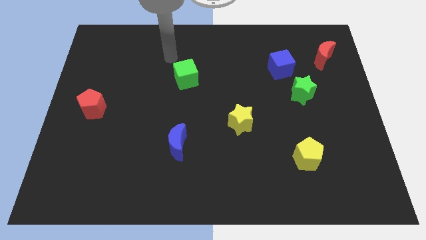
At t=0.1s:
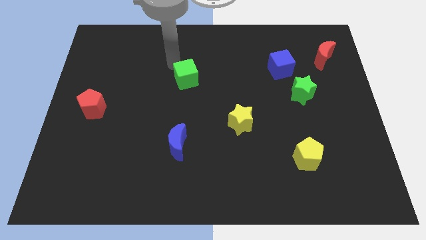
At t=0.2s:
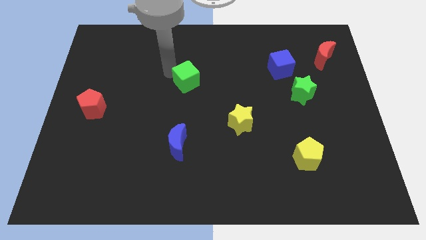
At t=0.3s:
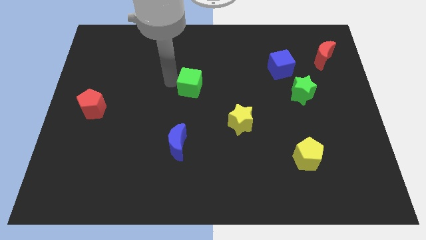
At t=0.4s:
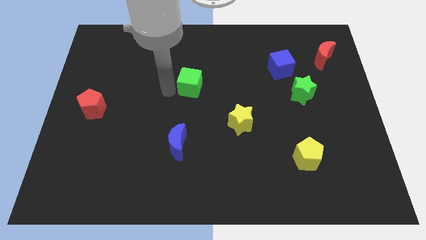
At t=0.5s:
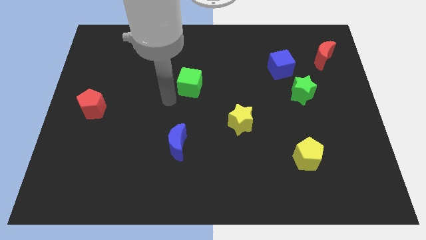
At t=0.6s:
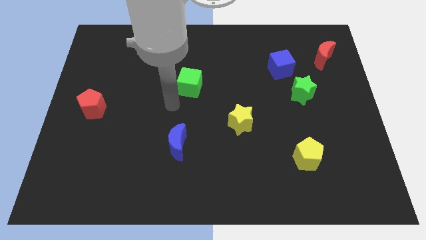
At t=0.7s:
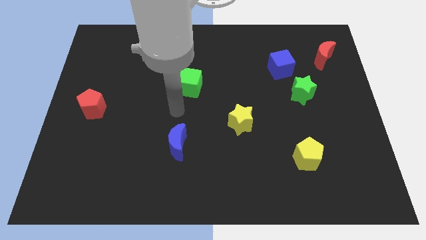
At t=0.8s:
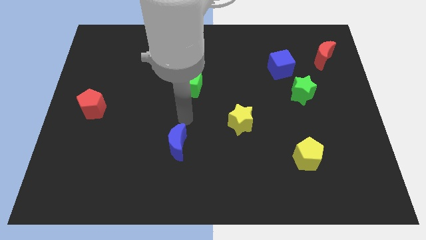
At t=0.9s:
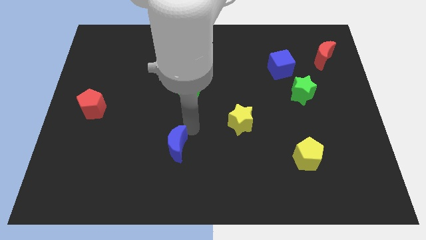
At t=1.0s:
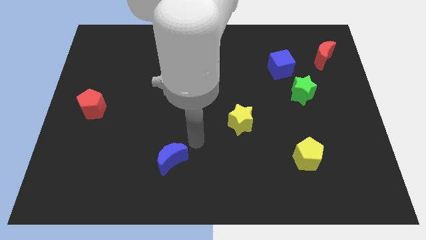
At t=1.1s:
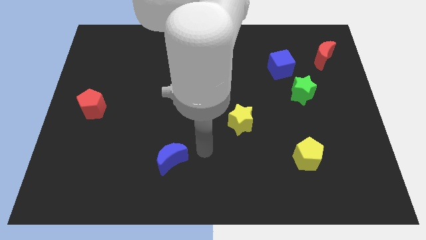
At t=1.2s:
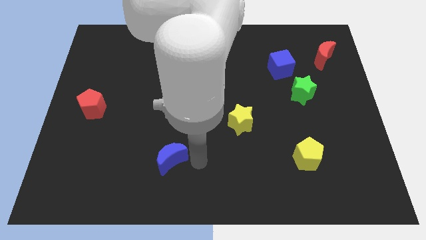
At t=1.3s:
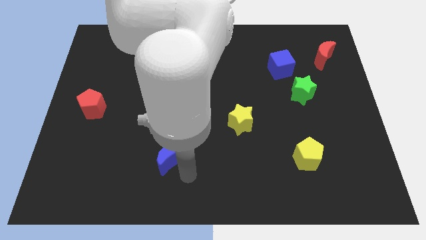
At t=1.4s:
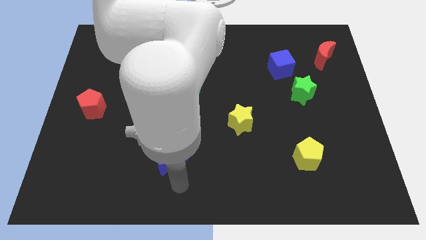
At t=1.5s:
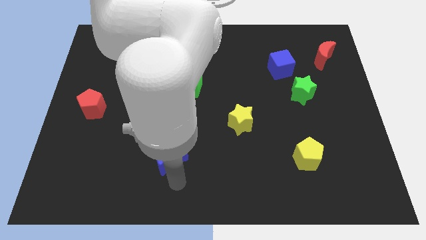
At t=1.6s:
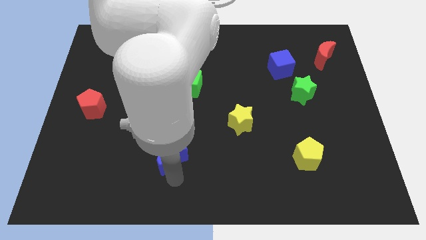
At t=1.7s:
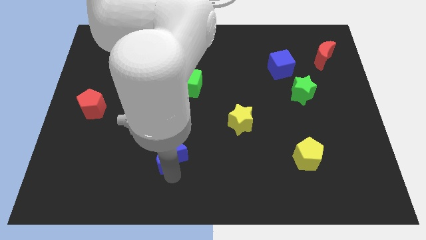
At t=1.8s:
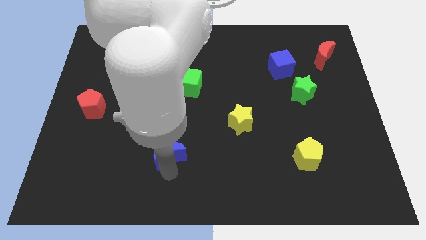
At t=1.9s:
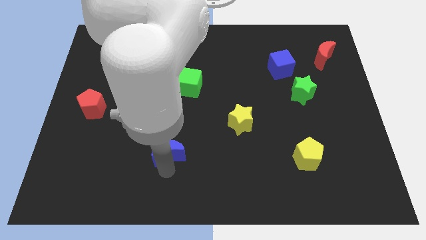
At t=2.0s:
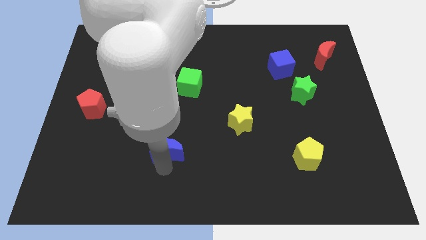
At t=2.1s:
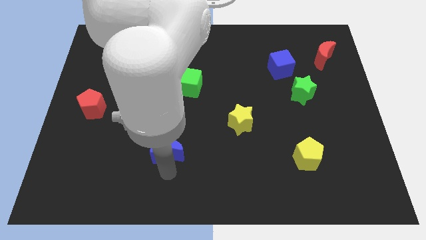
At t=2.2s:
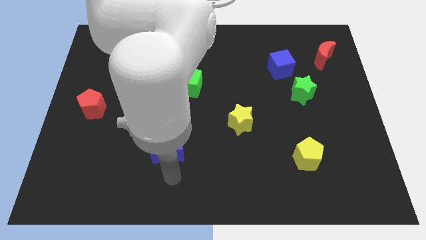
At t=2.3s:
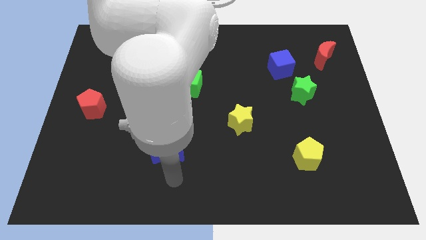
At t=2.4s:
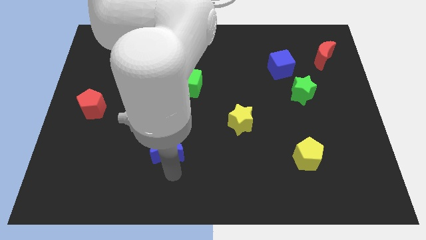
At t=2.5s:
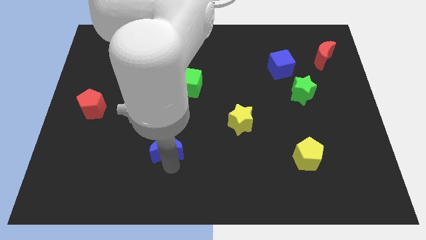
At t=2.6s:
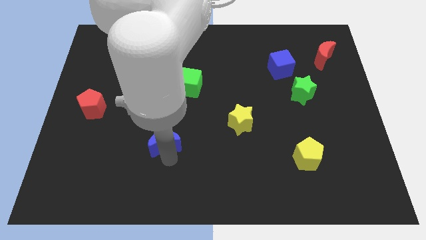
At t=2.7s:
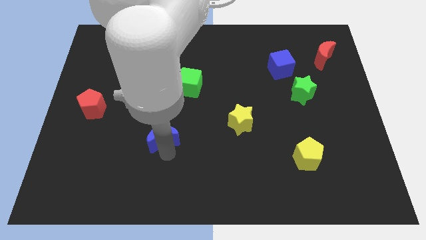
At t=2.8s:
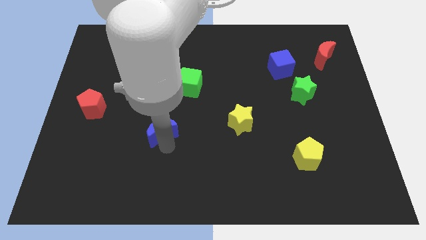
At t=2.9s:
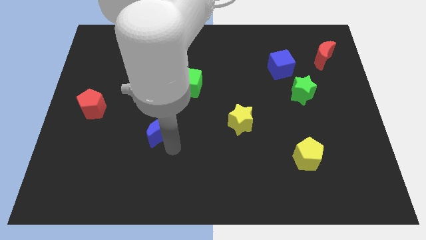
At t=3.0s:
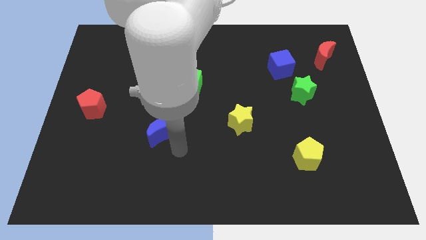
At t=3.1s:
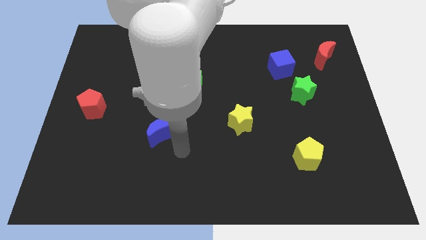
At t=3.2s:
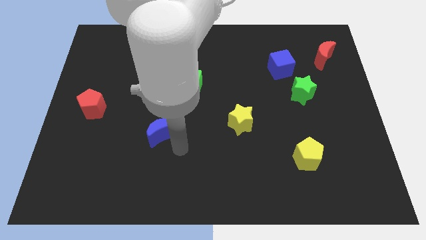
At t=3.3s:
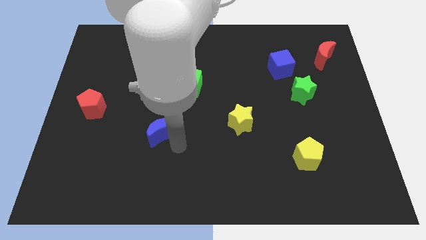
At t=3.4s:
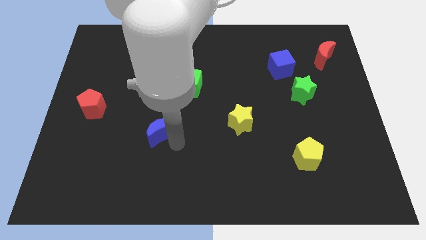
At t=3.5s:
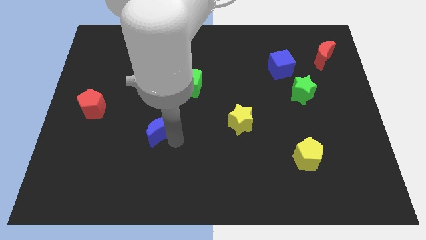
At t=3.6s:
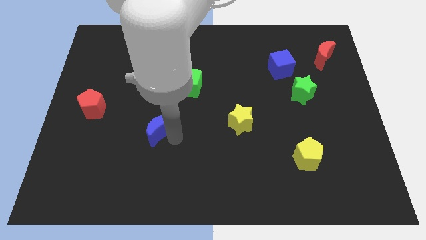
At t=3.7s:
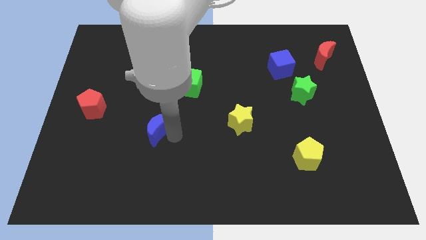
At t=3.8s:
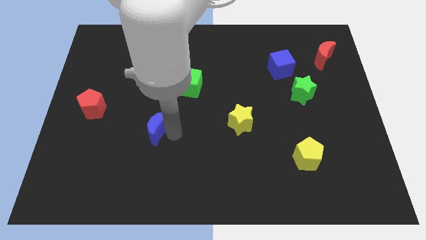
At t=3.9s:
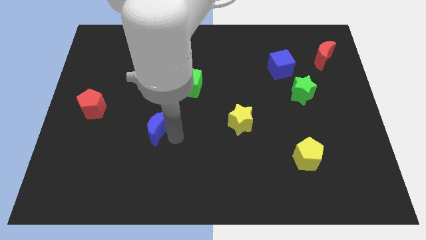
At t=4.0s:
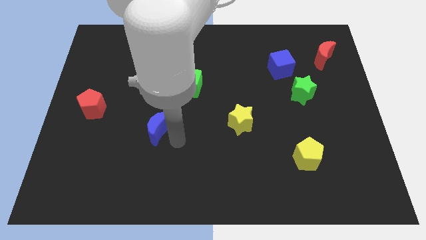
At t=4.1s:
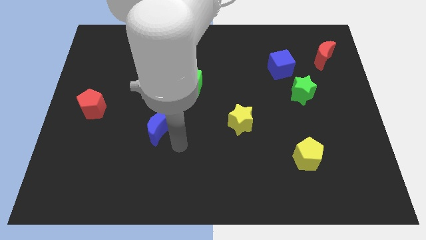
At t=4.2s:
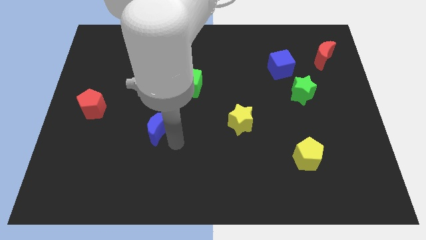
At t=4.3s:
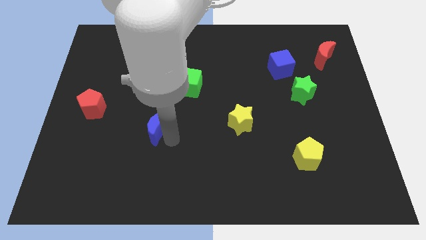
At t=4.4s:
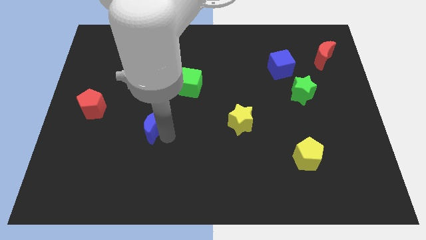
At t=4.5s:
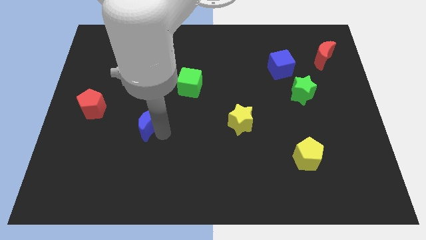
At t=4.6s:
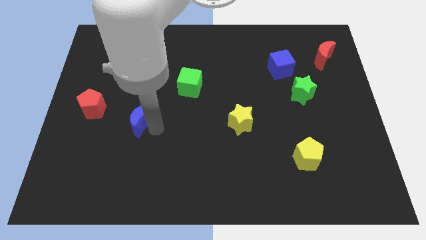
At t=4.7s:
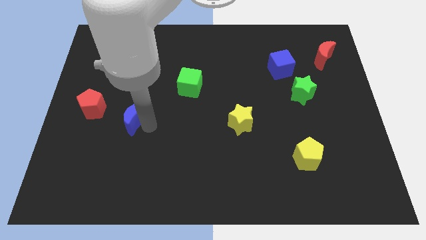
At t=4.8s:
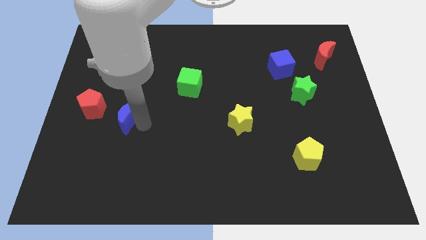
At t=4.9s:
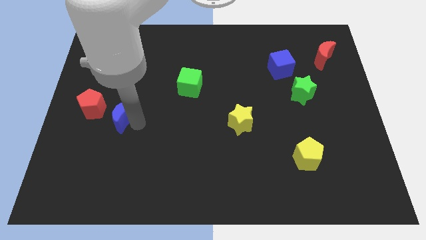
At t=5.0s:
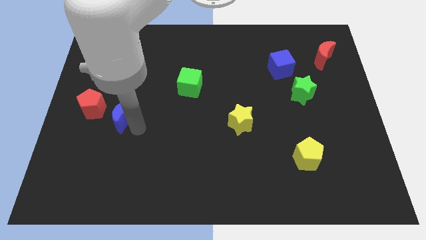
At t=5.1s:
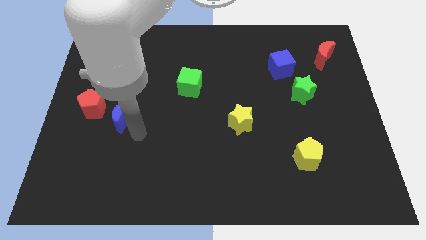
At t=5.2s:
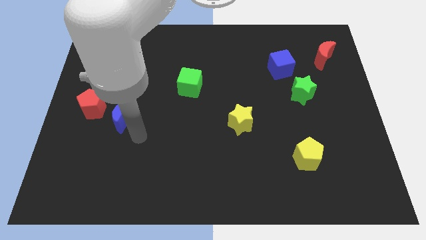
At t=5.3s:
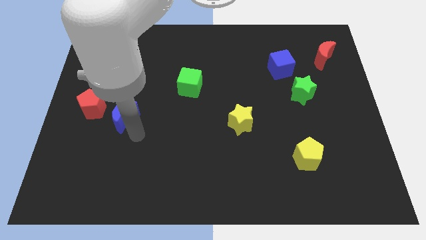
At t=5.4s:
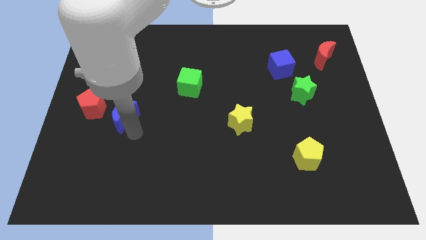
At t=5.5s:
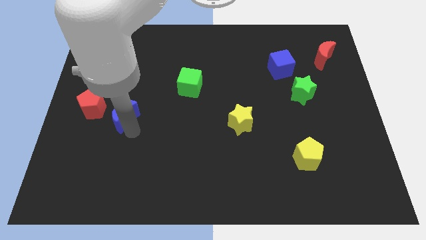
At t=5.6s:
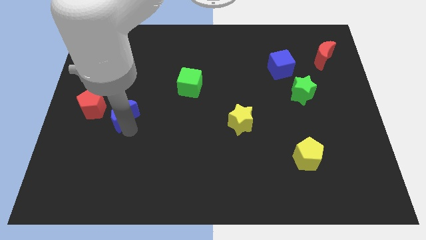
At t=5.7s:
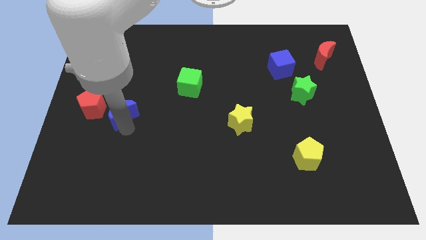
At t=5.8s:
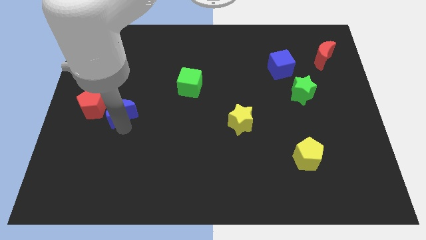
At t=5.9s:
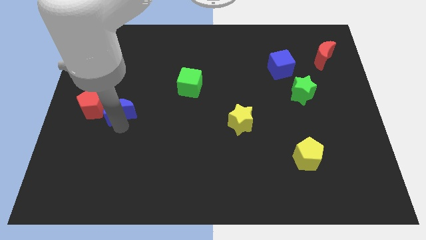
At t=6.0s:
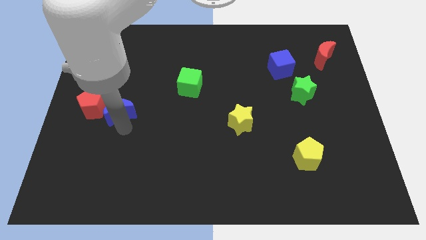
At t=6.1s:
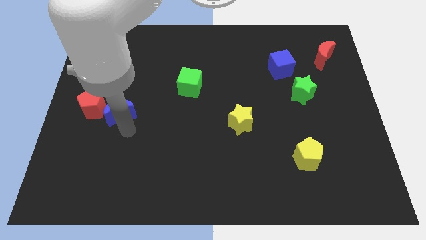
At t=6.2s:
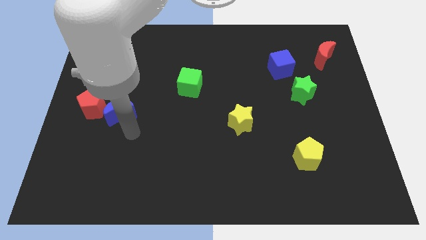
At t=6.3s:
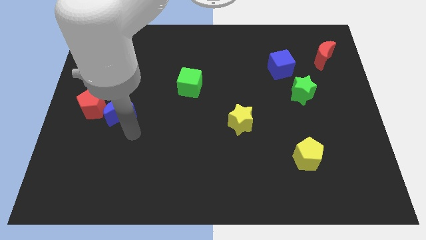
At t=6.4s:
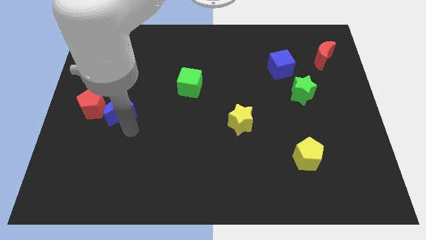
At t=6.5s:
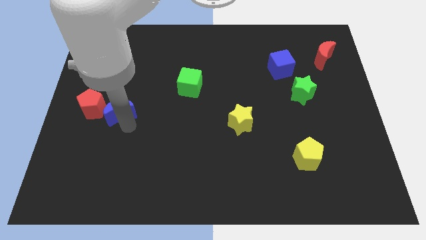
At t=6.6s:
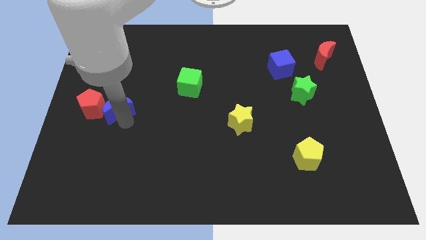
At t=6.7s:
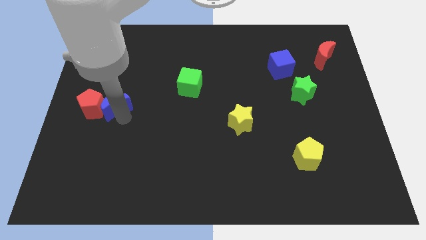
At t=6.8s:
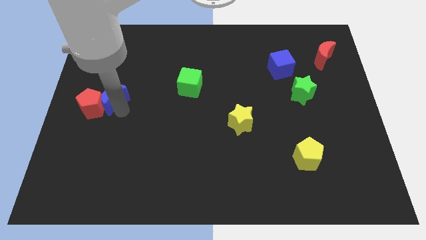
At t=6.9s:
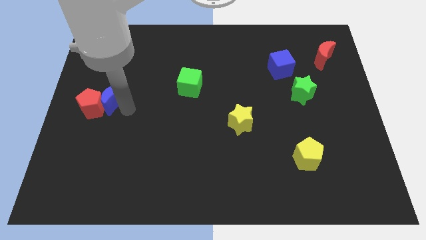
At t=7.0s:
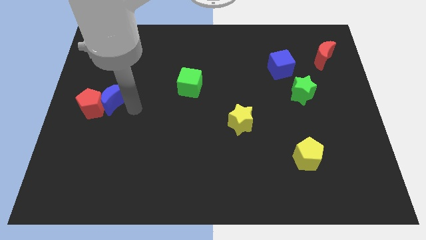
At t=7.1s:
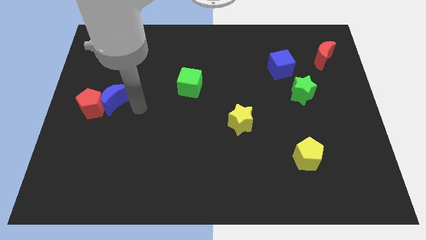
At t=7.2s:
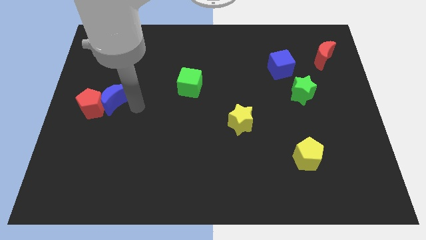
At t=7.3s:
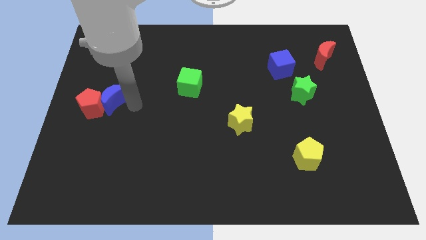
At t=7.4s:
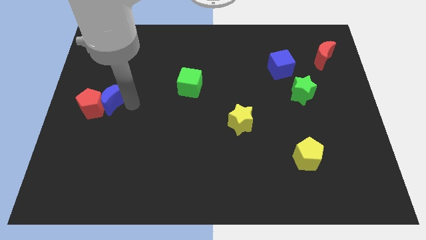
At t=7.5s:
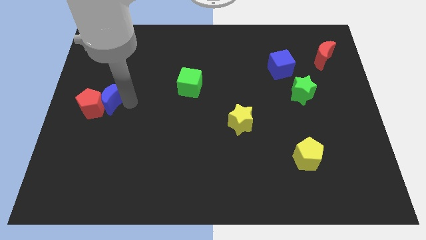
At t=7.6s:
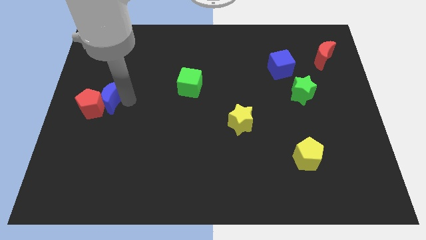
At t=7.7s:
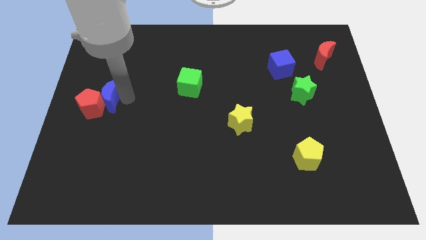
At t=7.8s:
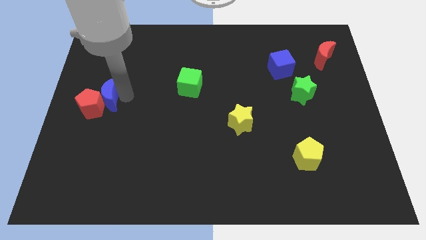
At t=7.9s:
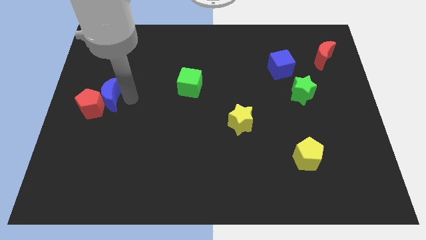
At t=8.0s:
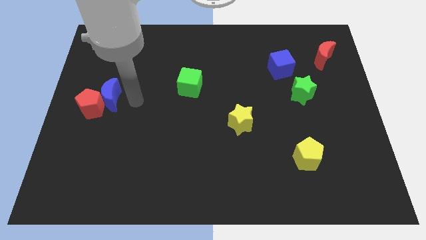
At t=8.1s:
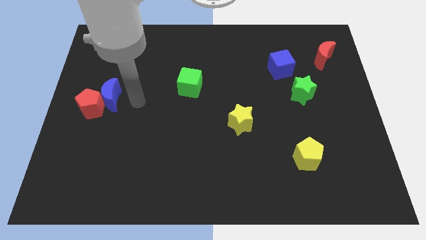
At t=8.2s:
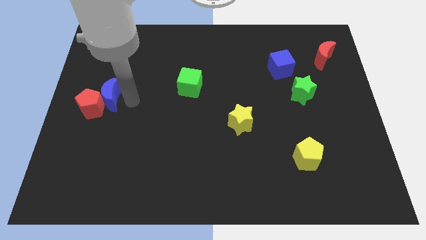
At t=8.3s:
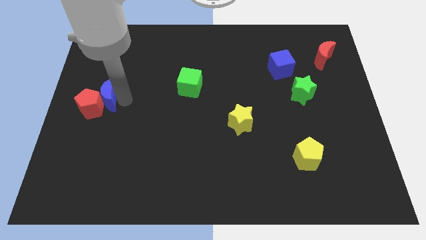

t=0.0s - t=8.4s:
push the blue moon to the left side of the board
